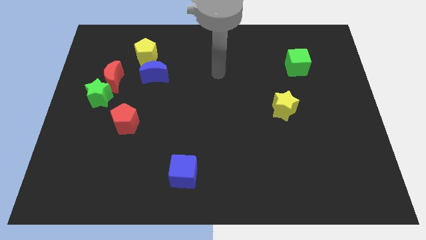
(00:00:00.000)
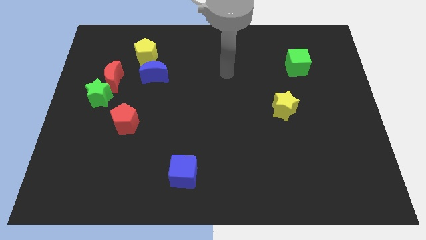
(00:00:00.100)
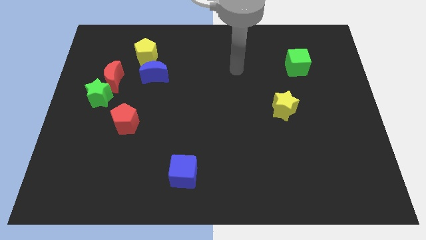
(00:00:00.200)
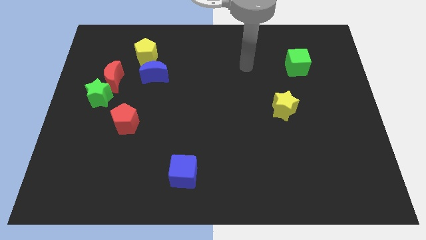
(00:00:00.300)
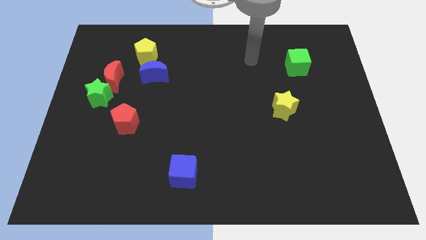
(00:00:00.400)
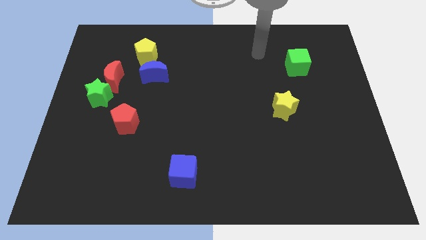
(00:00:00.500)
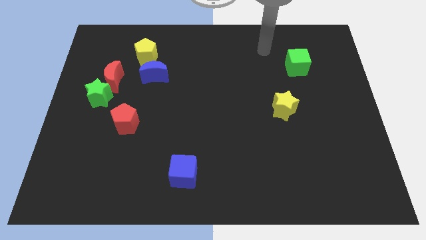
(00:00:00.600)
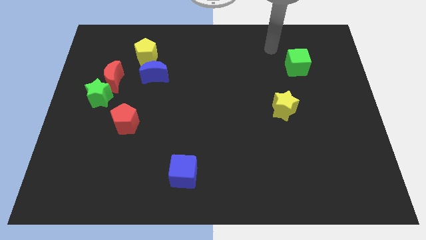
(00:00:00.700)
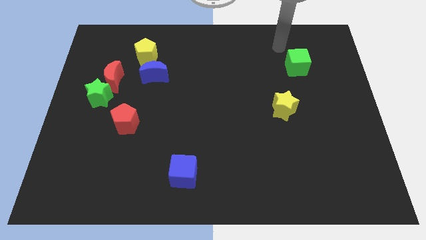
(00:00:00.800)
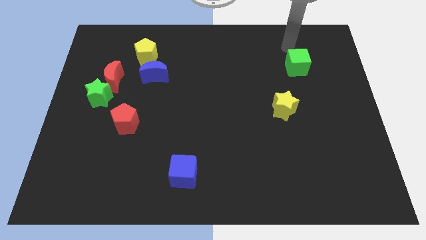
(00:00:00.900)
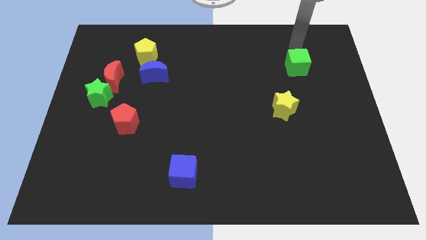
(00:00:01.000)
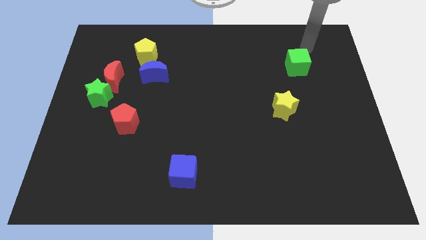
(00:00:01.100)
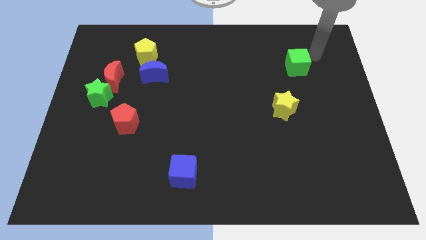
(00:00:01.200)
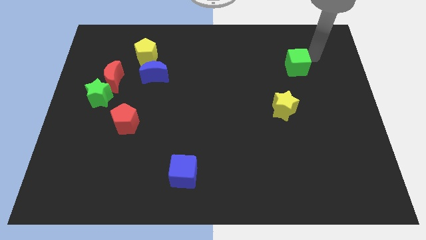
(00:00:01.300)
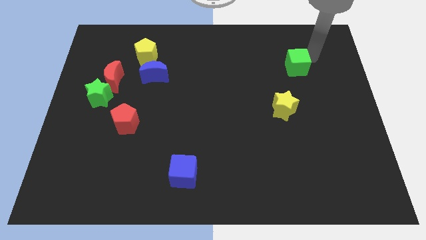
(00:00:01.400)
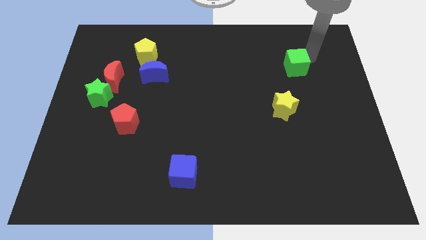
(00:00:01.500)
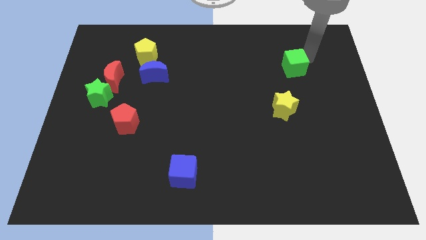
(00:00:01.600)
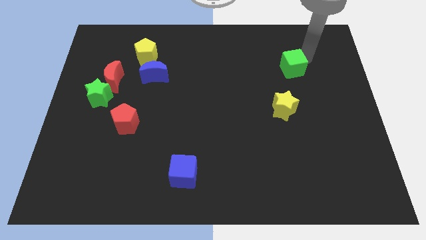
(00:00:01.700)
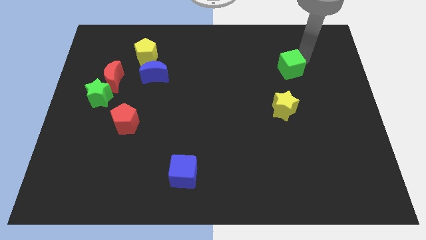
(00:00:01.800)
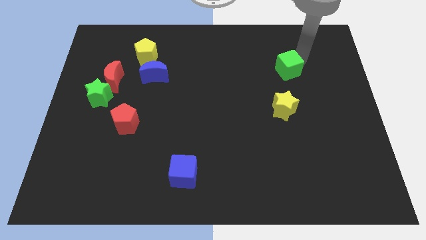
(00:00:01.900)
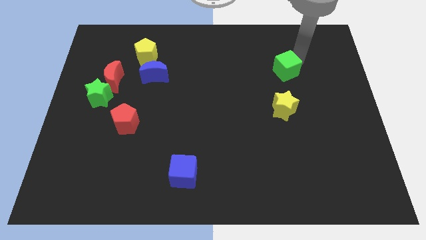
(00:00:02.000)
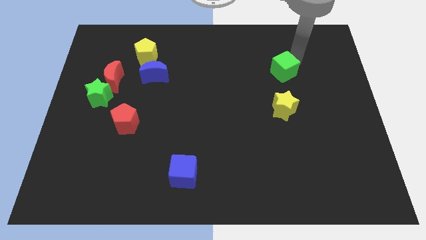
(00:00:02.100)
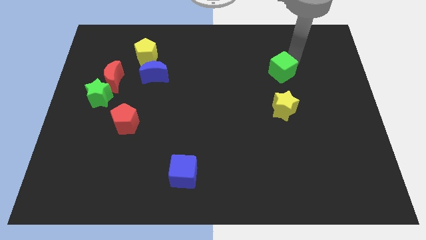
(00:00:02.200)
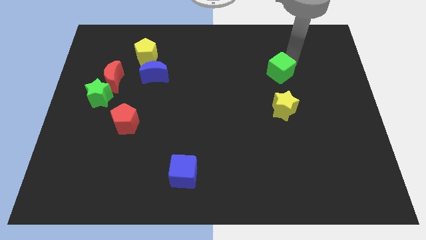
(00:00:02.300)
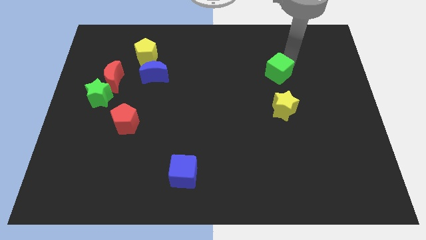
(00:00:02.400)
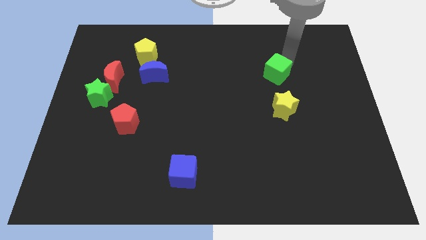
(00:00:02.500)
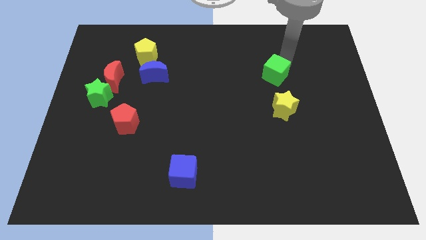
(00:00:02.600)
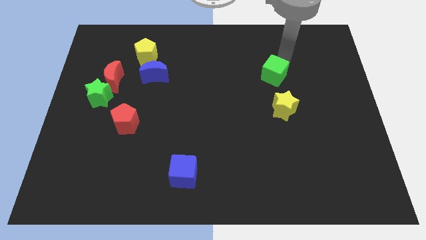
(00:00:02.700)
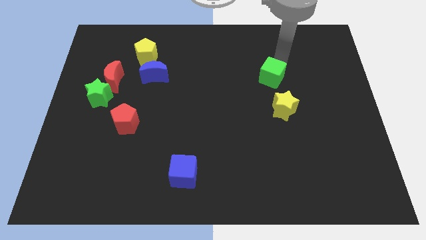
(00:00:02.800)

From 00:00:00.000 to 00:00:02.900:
slightly slide the green cube down and to the left

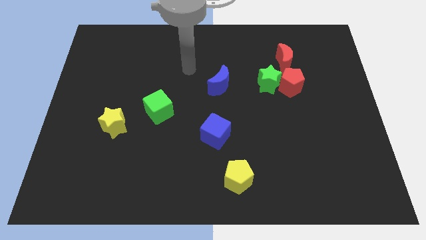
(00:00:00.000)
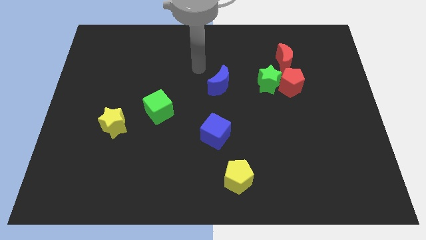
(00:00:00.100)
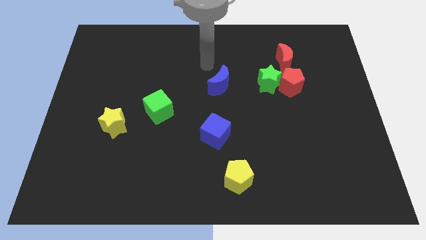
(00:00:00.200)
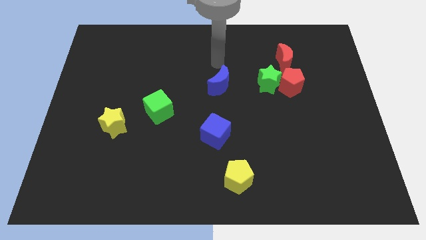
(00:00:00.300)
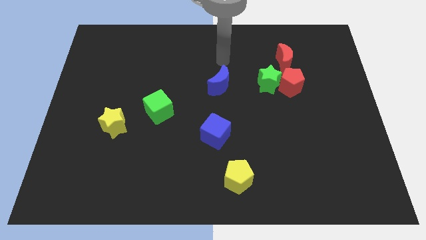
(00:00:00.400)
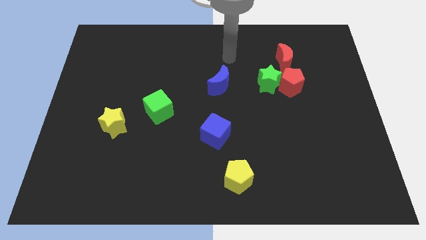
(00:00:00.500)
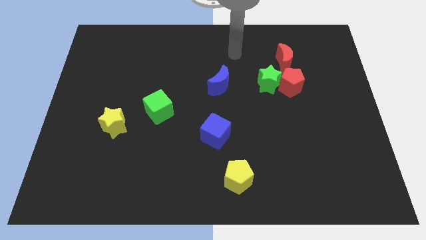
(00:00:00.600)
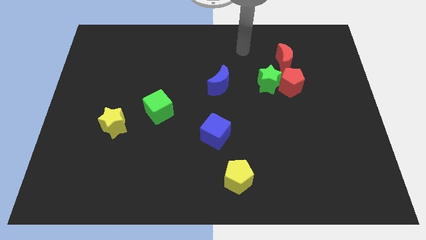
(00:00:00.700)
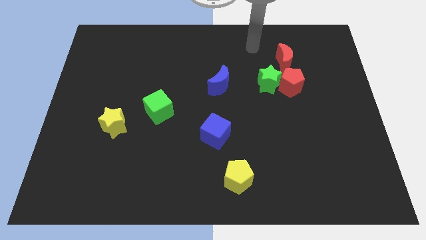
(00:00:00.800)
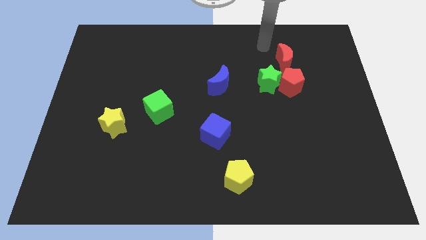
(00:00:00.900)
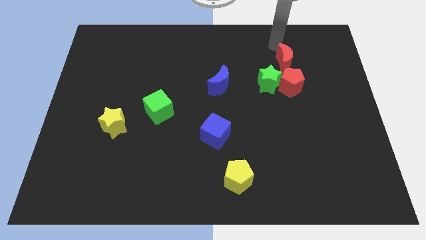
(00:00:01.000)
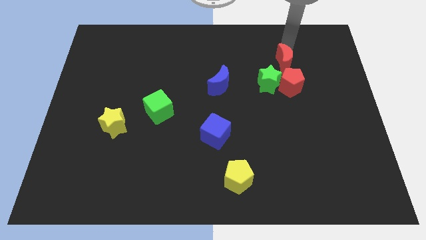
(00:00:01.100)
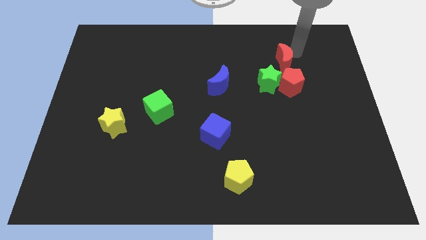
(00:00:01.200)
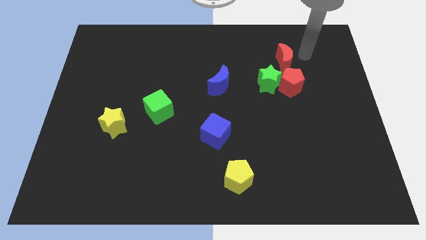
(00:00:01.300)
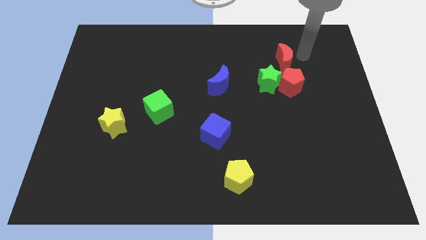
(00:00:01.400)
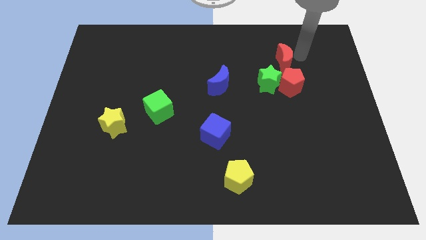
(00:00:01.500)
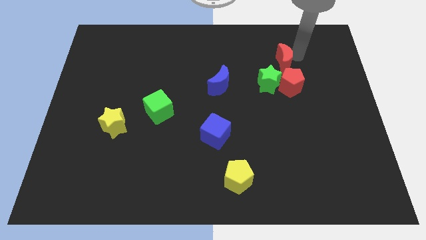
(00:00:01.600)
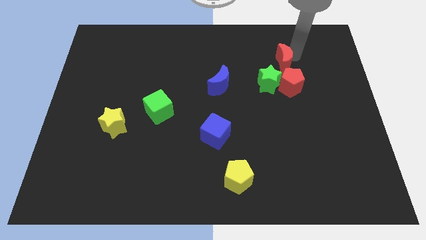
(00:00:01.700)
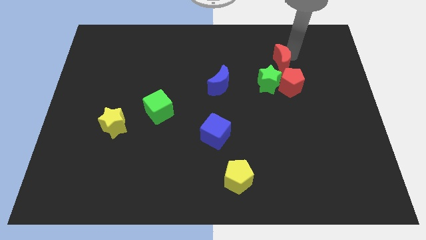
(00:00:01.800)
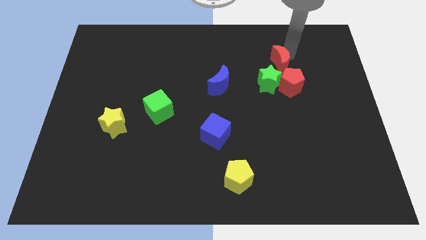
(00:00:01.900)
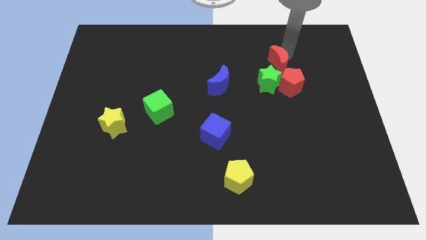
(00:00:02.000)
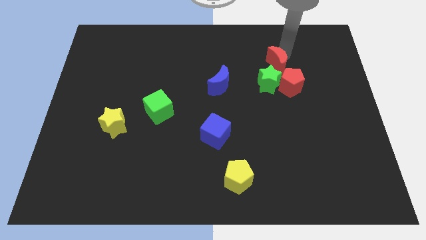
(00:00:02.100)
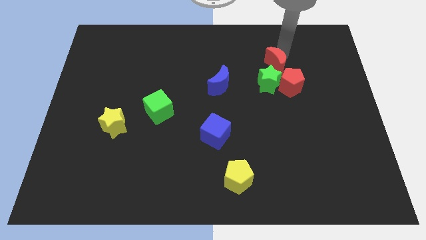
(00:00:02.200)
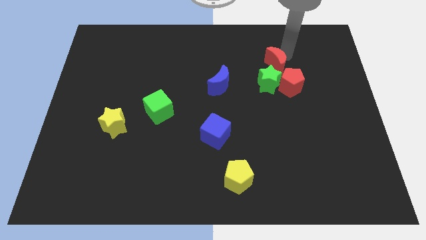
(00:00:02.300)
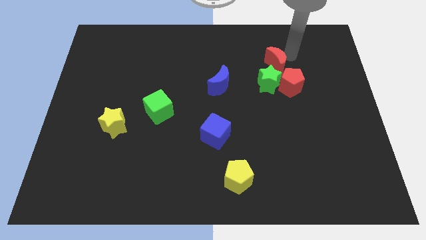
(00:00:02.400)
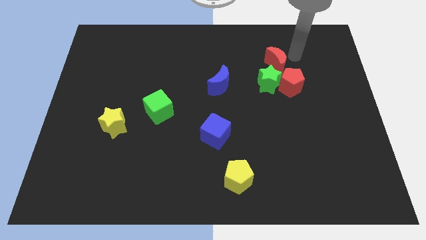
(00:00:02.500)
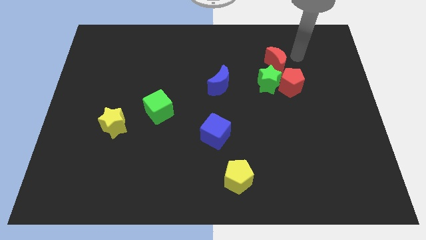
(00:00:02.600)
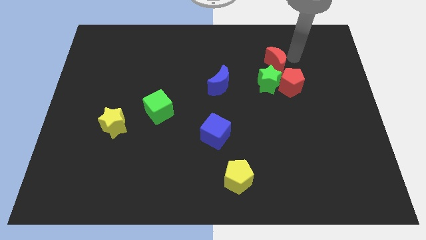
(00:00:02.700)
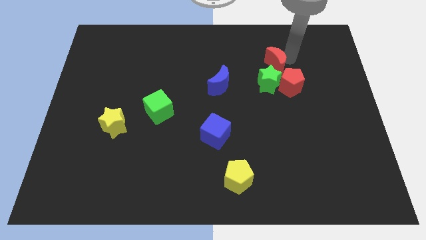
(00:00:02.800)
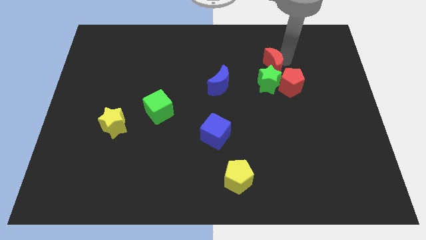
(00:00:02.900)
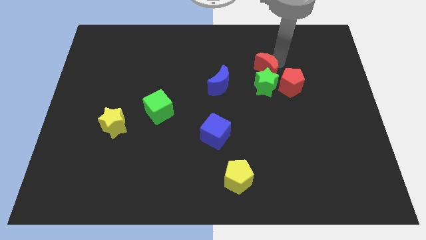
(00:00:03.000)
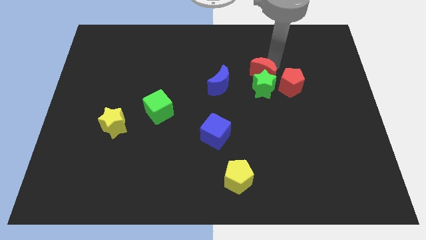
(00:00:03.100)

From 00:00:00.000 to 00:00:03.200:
move the red moon slightly down and to the left diagonally

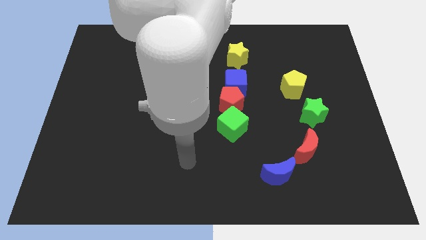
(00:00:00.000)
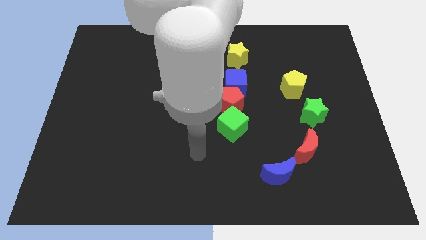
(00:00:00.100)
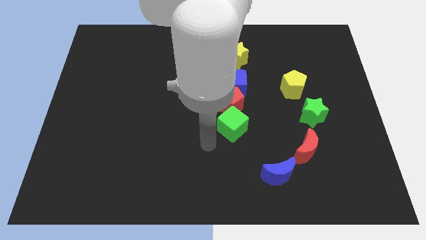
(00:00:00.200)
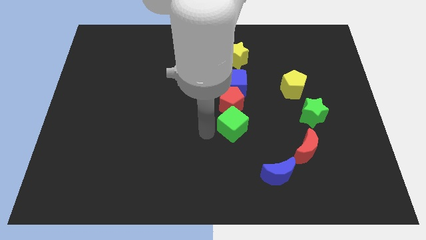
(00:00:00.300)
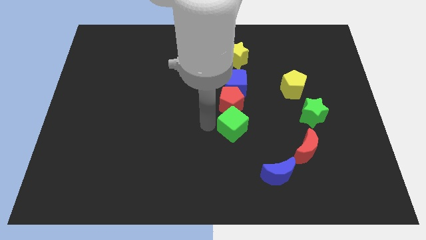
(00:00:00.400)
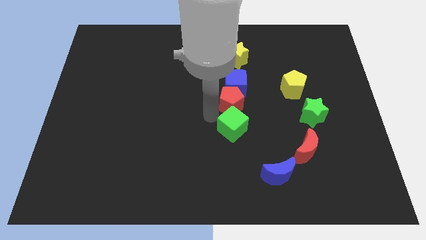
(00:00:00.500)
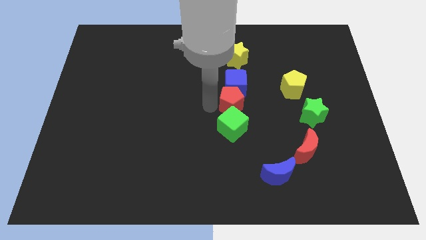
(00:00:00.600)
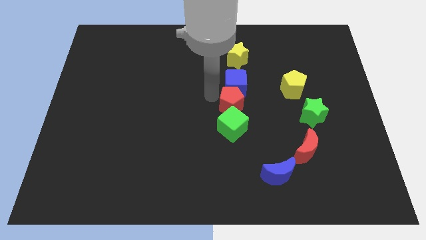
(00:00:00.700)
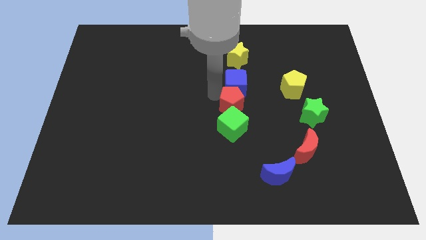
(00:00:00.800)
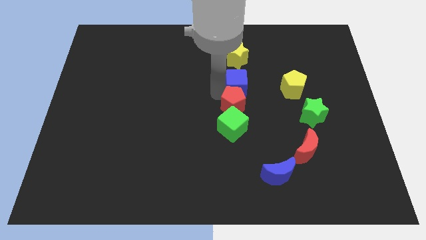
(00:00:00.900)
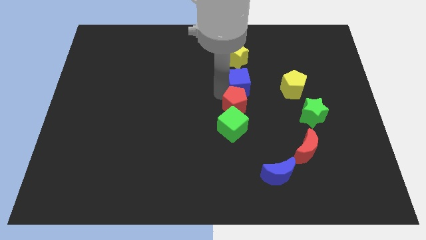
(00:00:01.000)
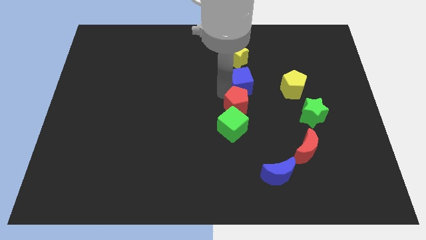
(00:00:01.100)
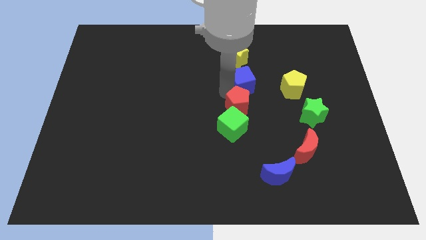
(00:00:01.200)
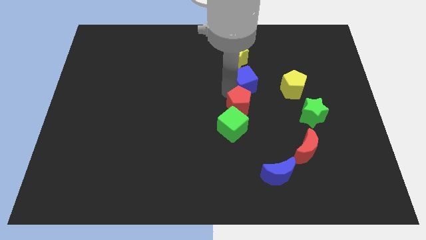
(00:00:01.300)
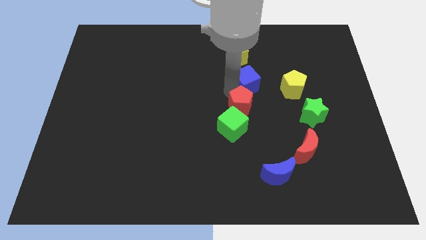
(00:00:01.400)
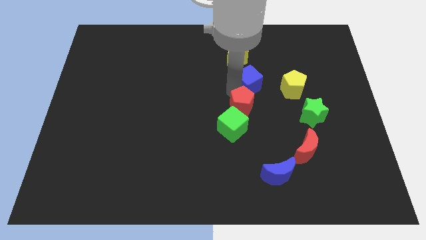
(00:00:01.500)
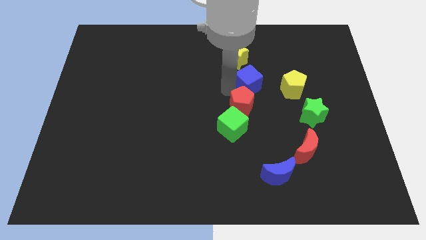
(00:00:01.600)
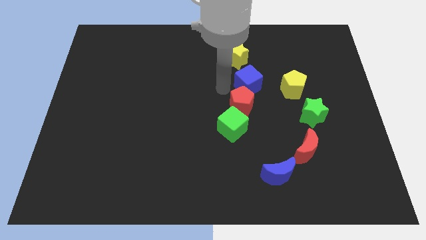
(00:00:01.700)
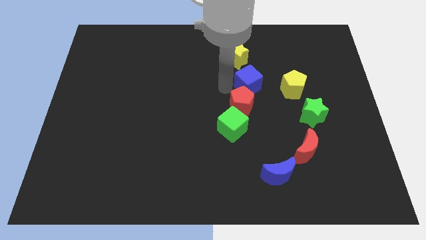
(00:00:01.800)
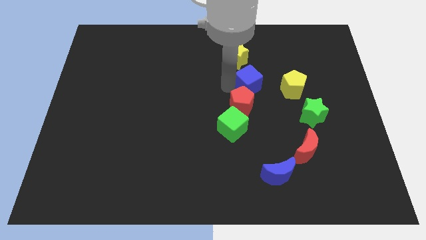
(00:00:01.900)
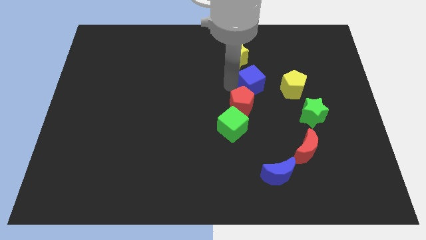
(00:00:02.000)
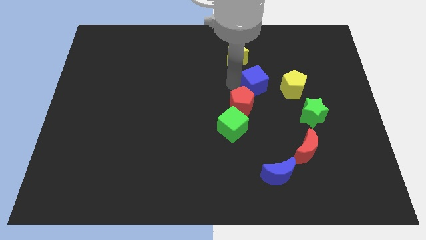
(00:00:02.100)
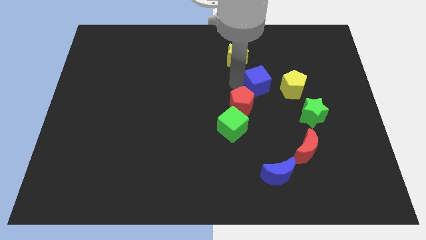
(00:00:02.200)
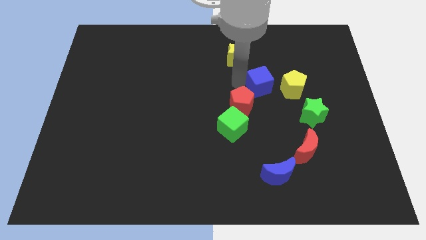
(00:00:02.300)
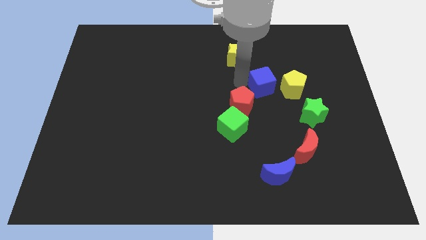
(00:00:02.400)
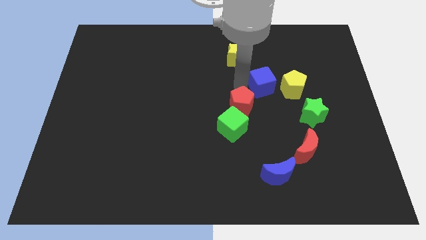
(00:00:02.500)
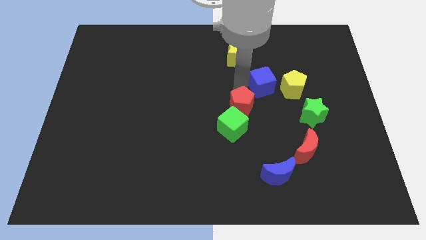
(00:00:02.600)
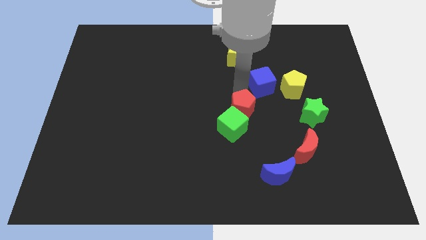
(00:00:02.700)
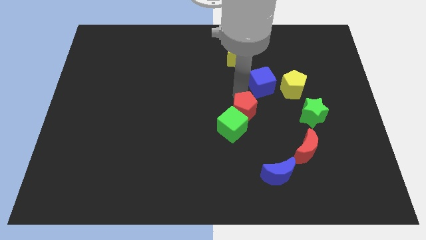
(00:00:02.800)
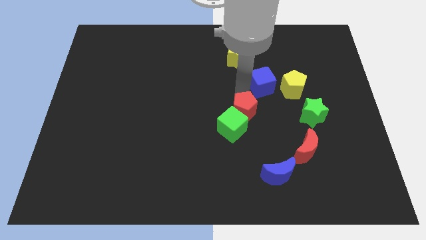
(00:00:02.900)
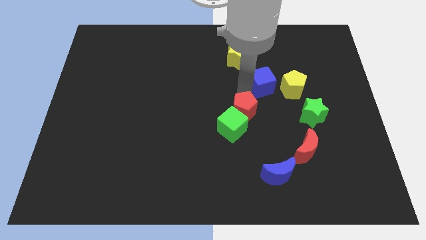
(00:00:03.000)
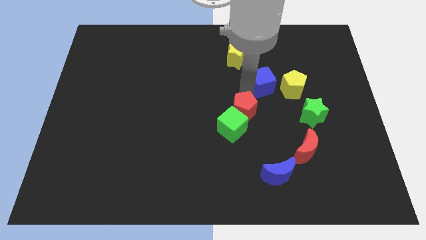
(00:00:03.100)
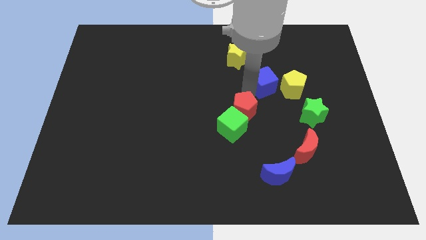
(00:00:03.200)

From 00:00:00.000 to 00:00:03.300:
slide the blue cube to the right somewhat
